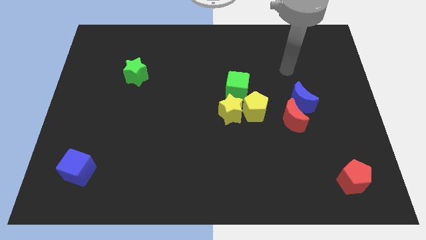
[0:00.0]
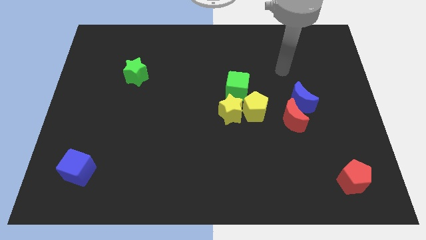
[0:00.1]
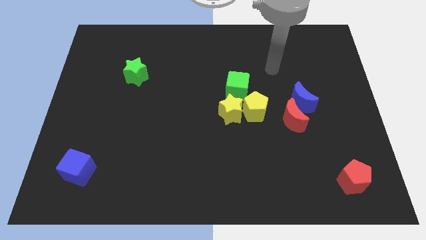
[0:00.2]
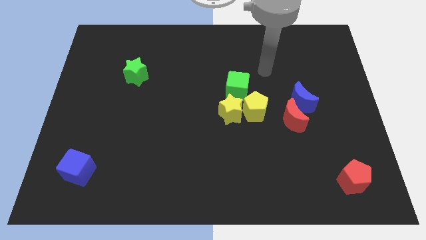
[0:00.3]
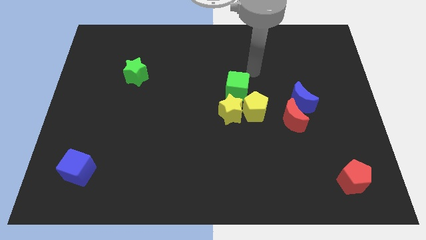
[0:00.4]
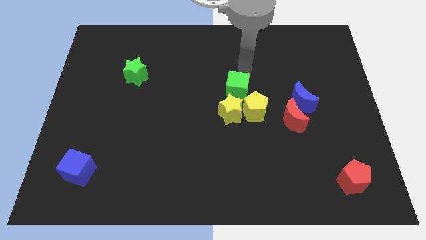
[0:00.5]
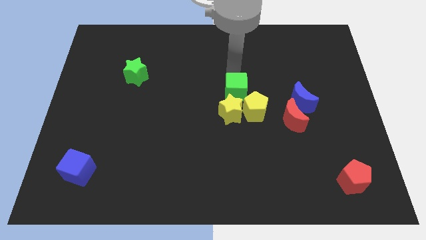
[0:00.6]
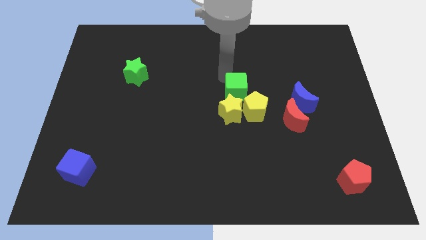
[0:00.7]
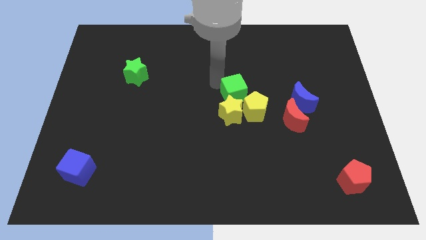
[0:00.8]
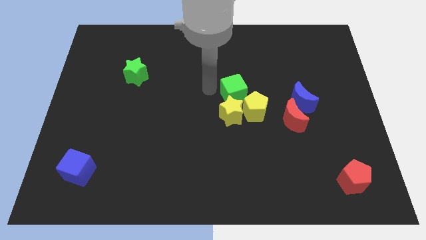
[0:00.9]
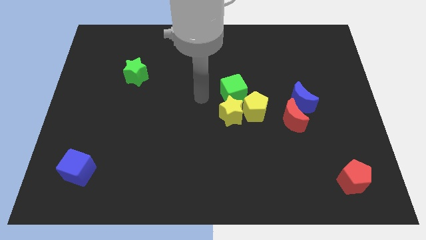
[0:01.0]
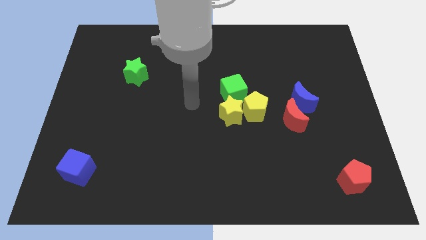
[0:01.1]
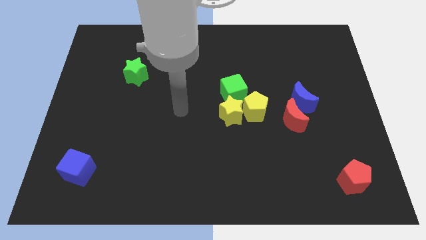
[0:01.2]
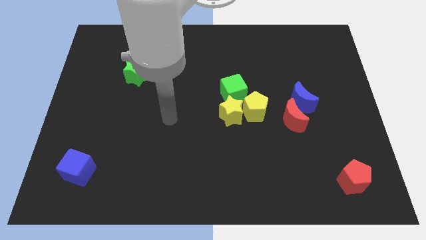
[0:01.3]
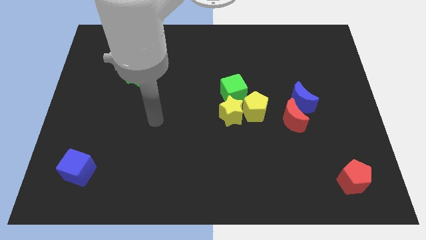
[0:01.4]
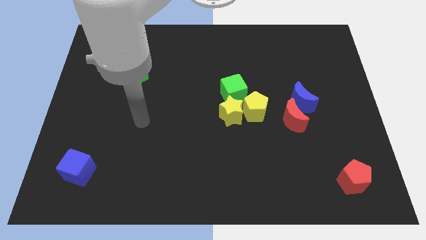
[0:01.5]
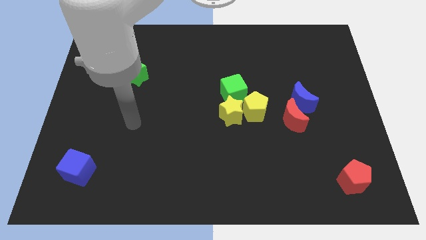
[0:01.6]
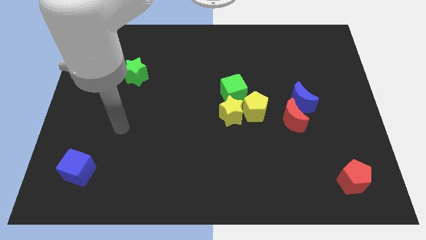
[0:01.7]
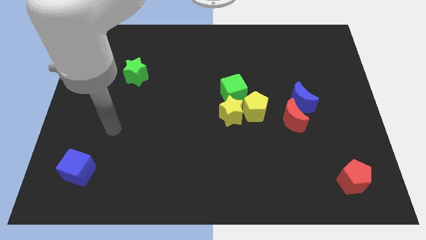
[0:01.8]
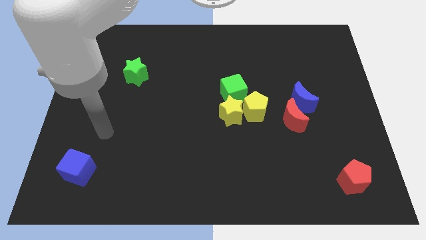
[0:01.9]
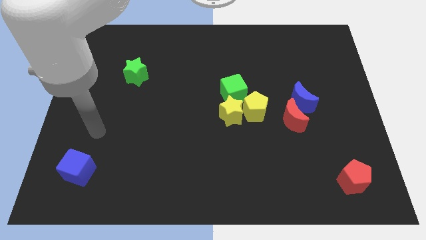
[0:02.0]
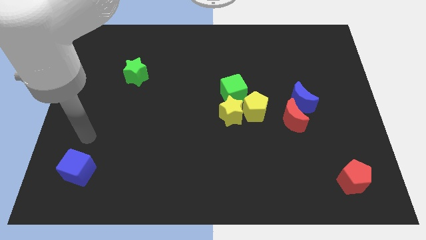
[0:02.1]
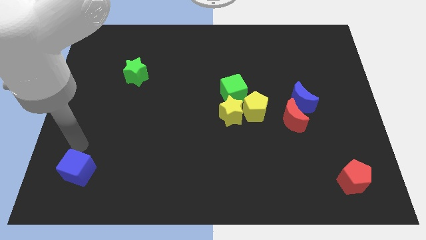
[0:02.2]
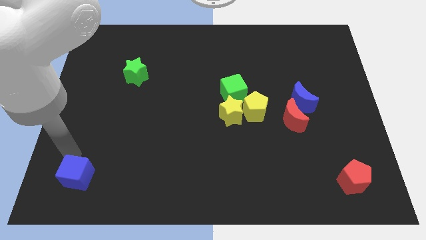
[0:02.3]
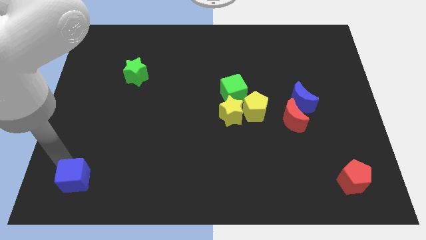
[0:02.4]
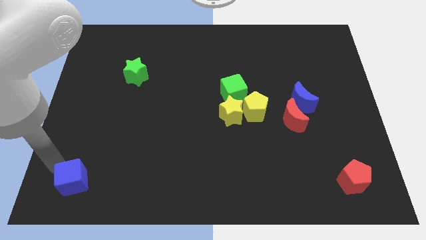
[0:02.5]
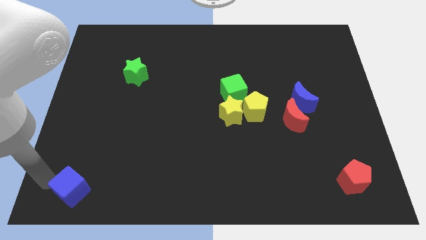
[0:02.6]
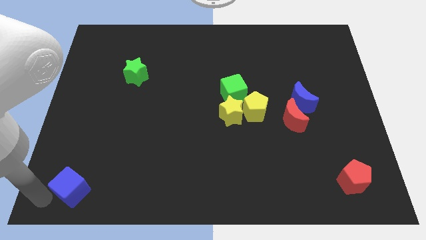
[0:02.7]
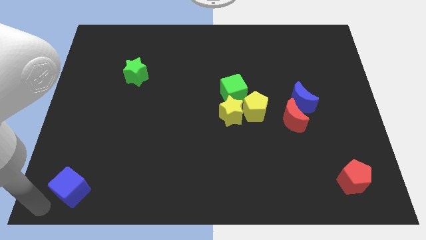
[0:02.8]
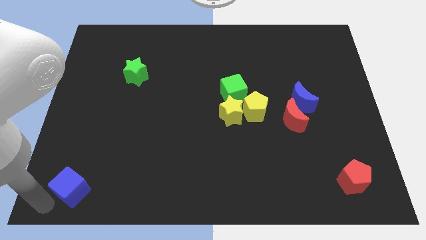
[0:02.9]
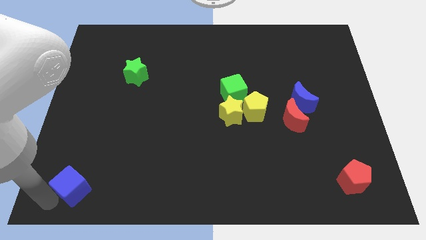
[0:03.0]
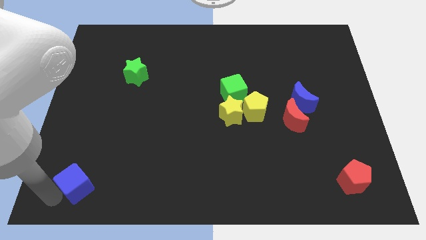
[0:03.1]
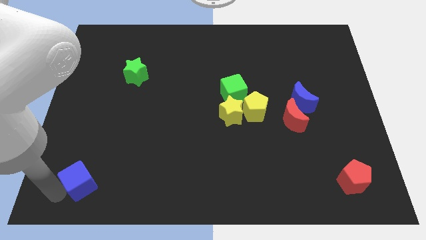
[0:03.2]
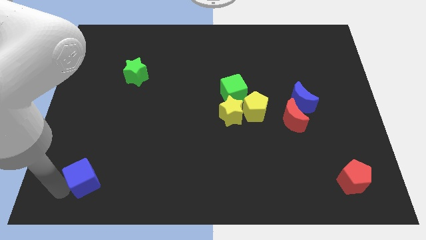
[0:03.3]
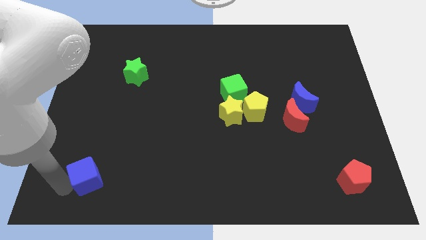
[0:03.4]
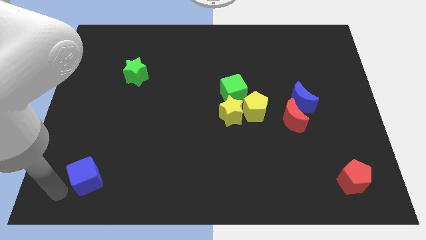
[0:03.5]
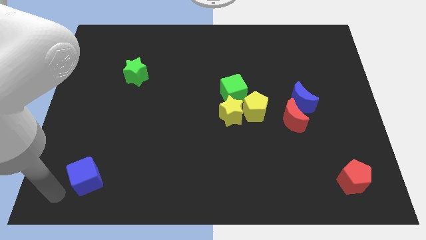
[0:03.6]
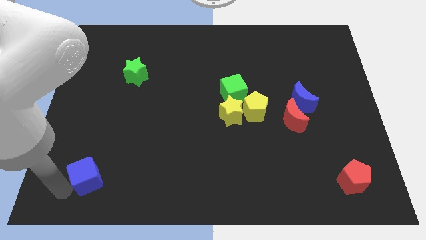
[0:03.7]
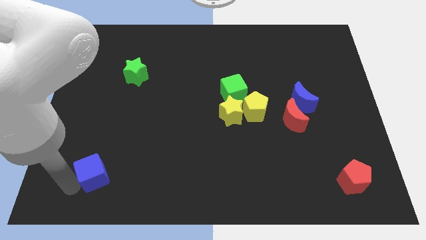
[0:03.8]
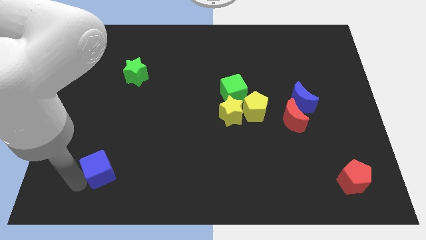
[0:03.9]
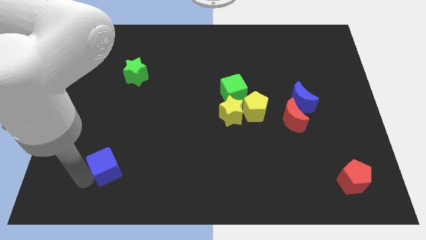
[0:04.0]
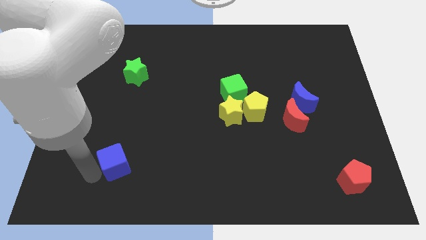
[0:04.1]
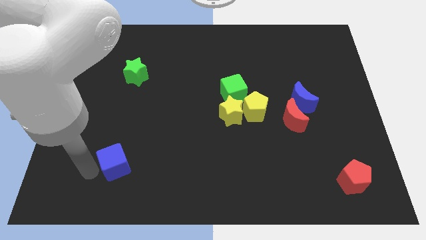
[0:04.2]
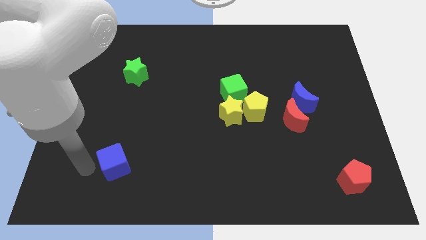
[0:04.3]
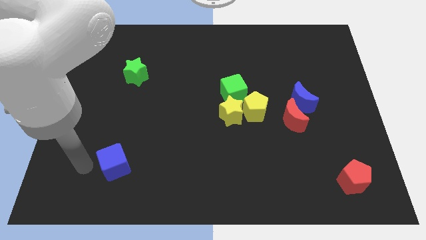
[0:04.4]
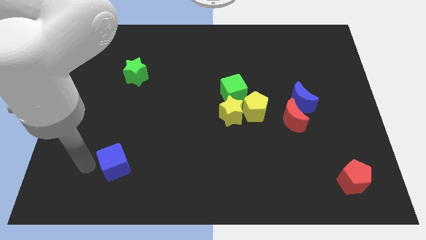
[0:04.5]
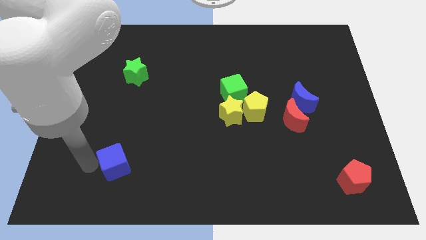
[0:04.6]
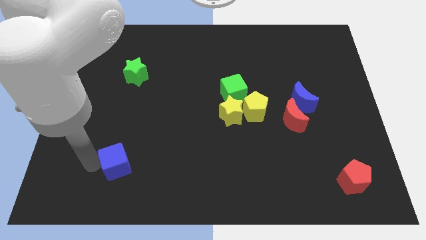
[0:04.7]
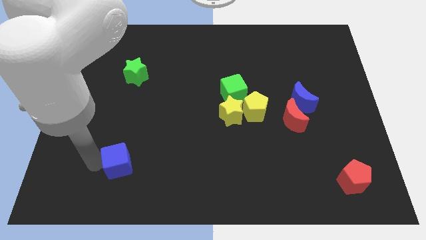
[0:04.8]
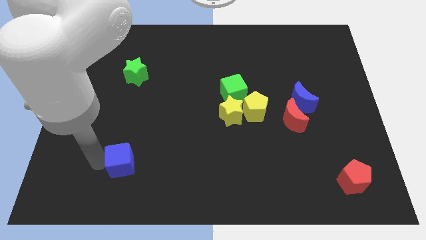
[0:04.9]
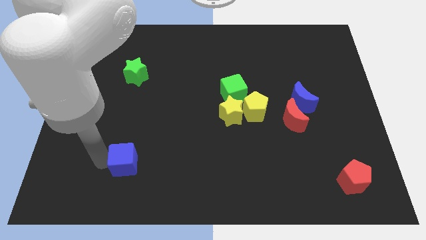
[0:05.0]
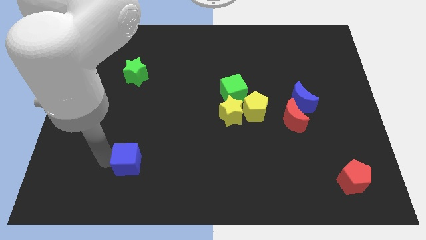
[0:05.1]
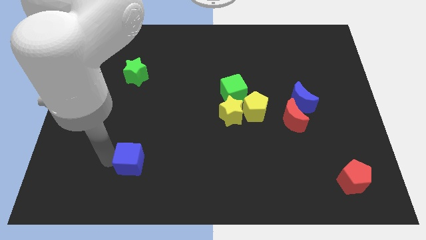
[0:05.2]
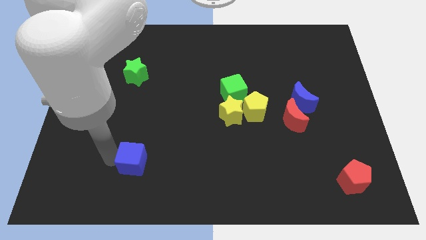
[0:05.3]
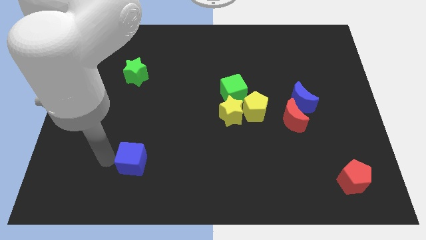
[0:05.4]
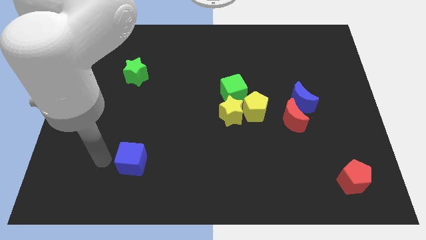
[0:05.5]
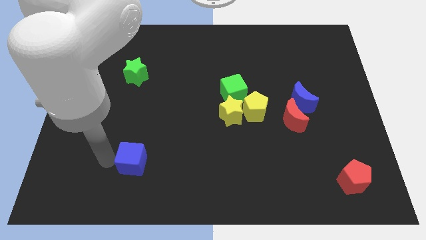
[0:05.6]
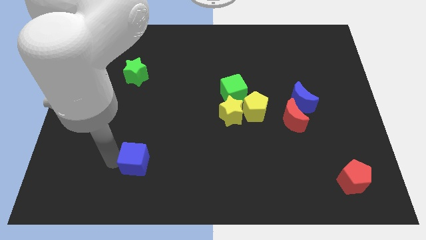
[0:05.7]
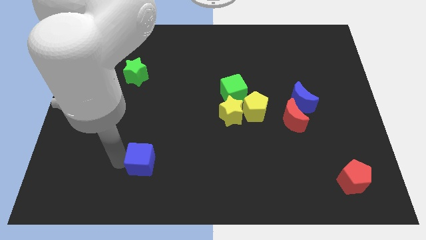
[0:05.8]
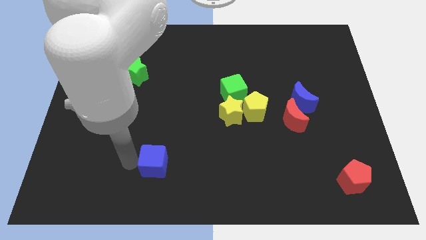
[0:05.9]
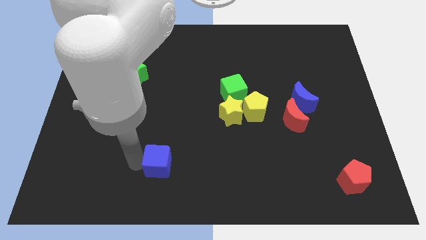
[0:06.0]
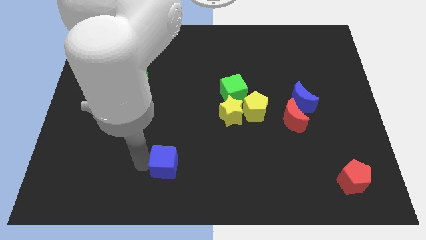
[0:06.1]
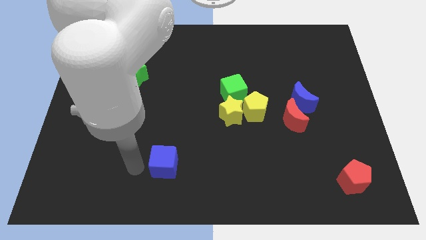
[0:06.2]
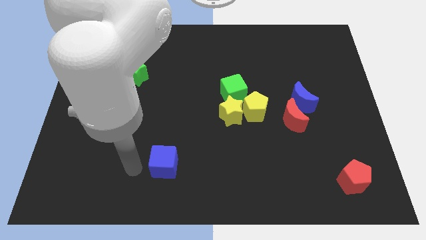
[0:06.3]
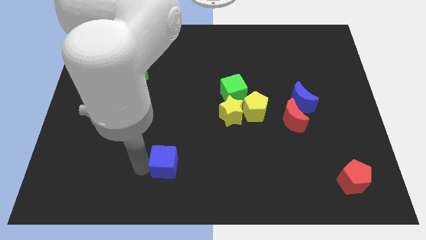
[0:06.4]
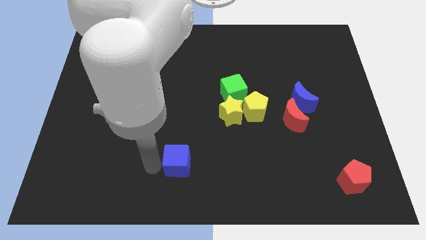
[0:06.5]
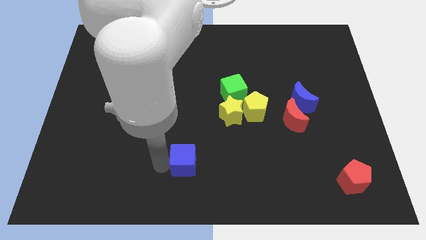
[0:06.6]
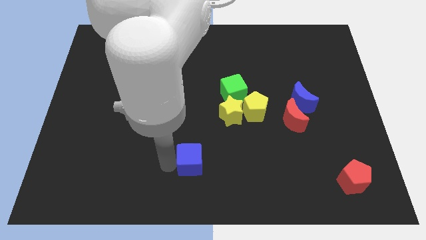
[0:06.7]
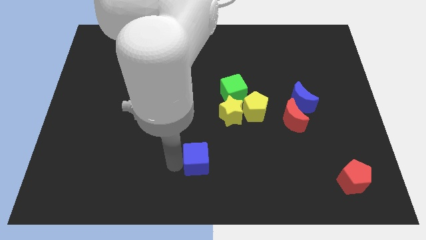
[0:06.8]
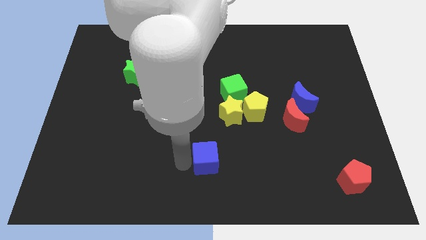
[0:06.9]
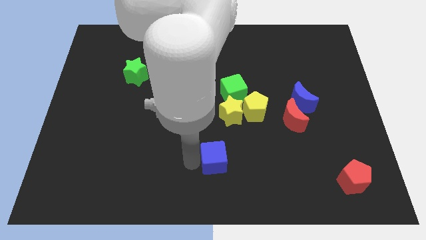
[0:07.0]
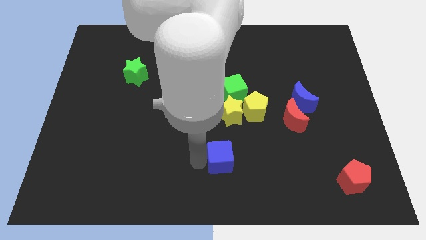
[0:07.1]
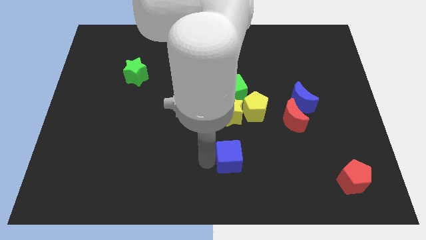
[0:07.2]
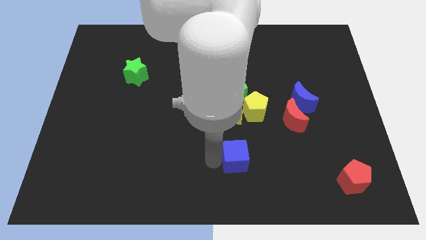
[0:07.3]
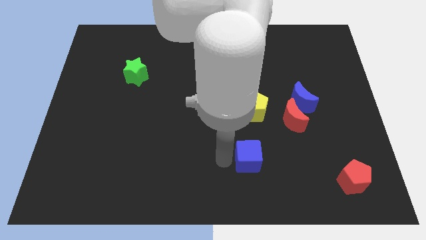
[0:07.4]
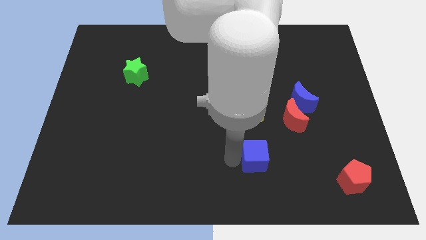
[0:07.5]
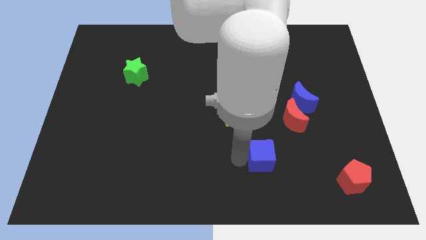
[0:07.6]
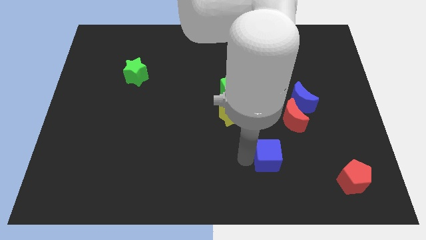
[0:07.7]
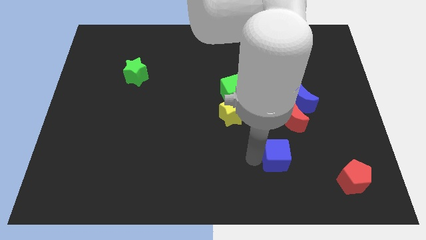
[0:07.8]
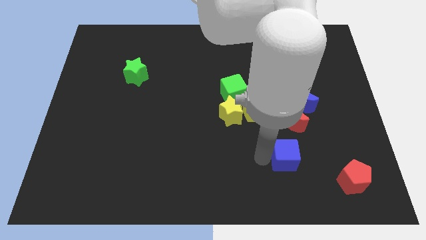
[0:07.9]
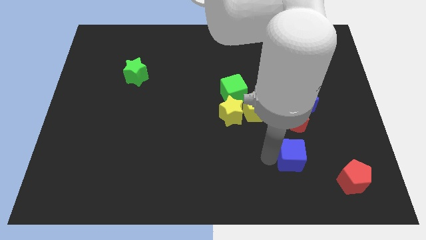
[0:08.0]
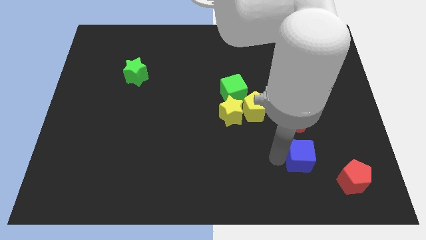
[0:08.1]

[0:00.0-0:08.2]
move the blue cube diagonally up and to the left of the red pentagon
